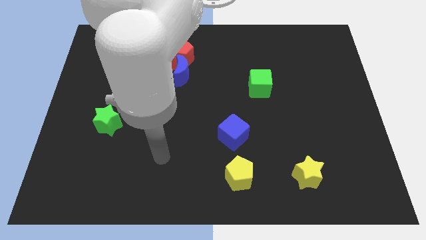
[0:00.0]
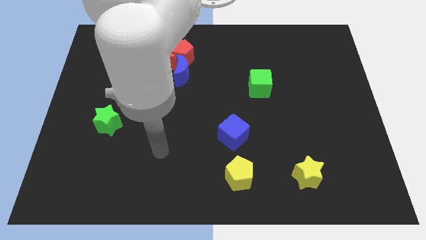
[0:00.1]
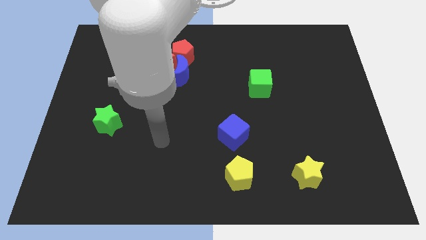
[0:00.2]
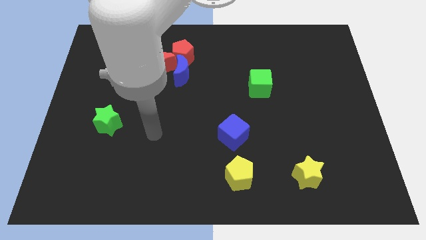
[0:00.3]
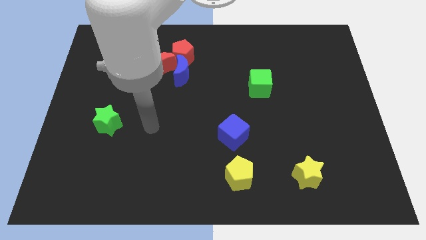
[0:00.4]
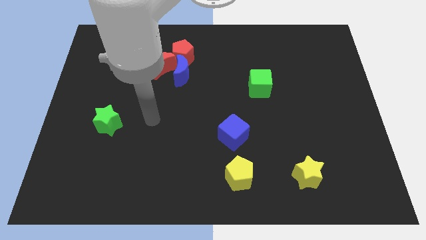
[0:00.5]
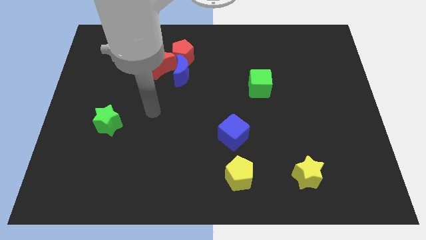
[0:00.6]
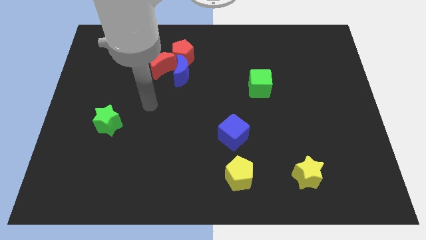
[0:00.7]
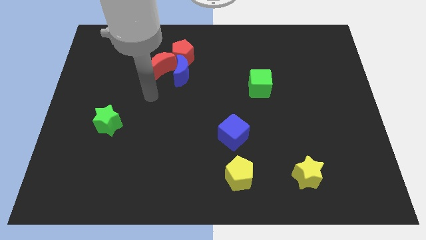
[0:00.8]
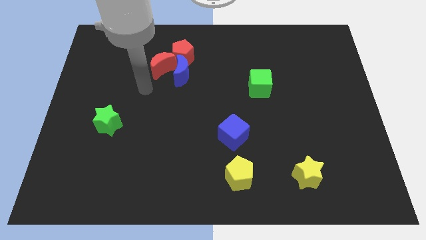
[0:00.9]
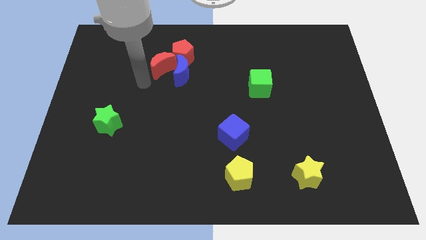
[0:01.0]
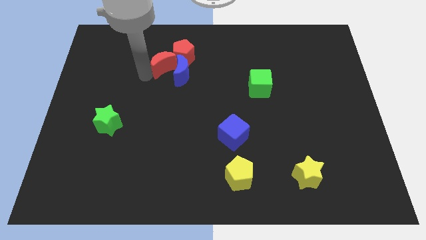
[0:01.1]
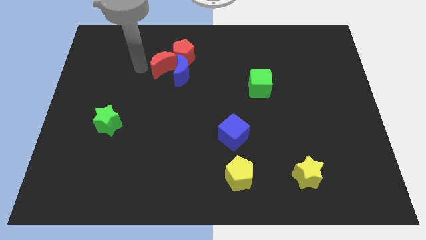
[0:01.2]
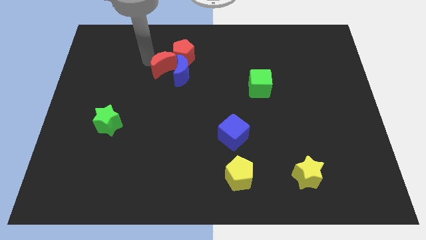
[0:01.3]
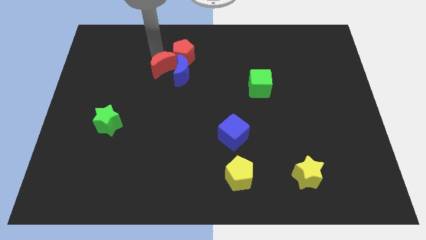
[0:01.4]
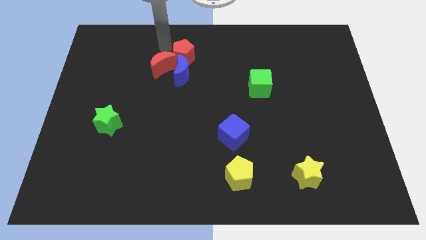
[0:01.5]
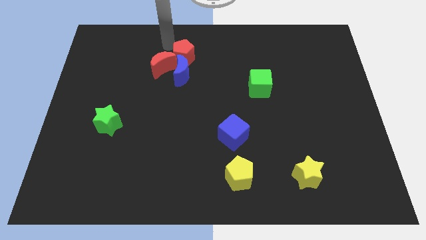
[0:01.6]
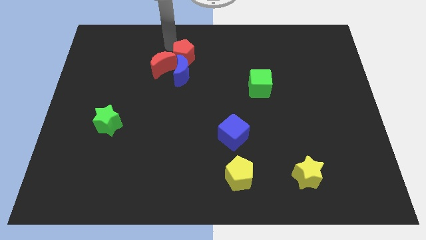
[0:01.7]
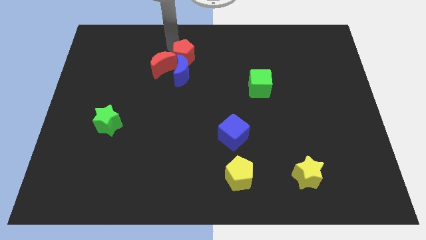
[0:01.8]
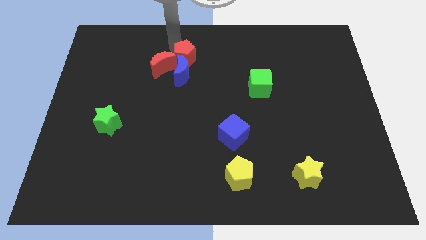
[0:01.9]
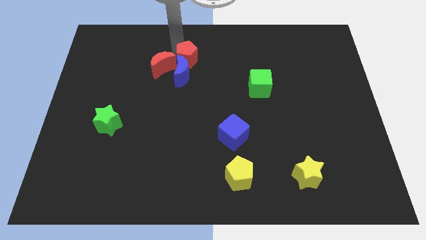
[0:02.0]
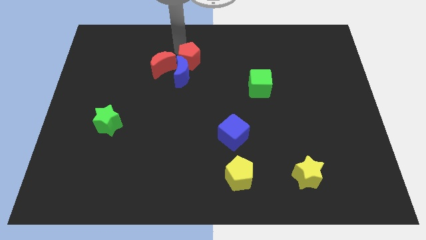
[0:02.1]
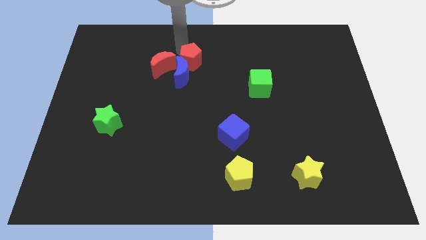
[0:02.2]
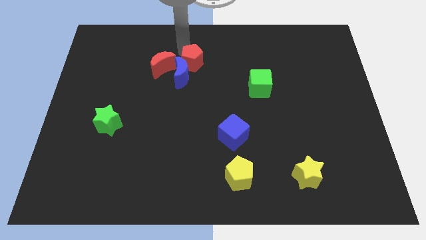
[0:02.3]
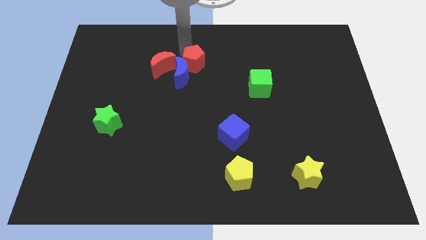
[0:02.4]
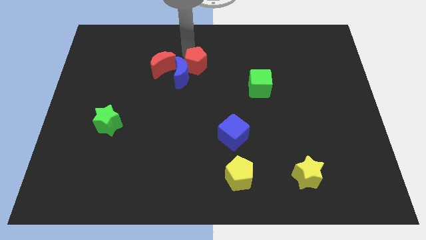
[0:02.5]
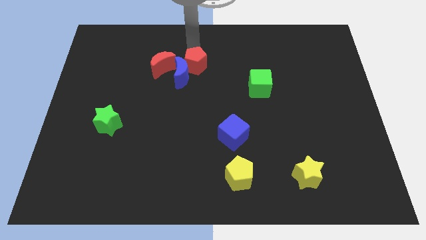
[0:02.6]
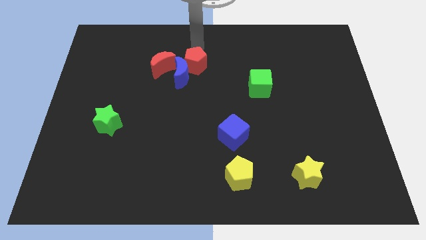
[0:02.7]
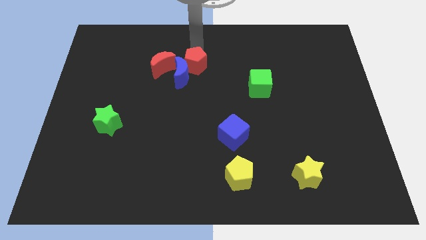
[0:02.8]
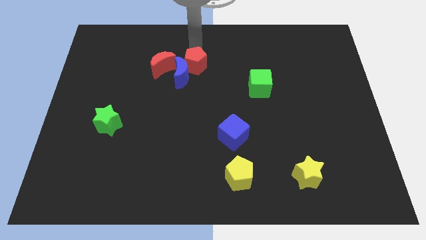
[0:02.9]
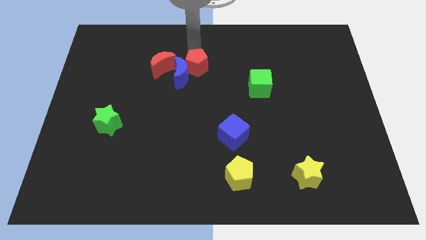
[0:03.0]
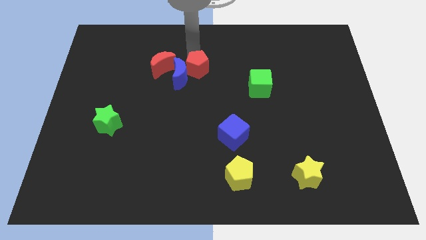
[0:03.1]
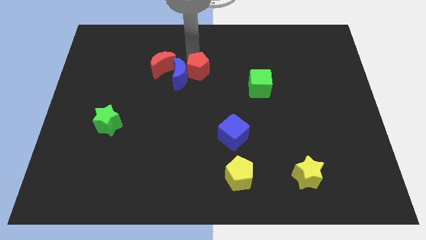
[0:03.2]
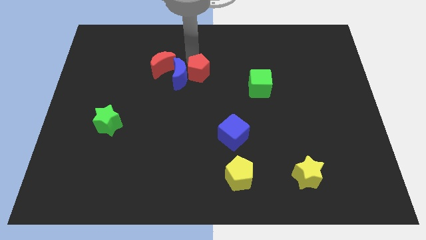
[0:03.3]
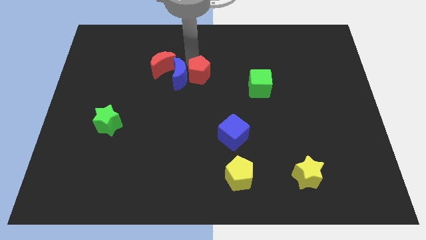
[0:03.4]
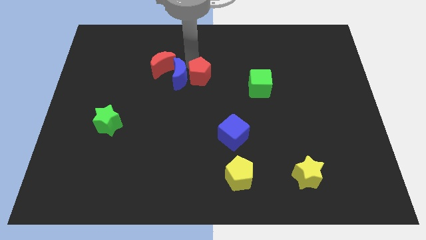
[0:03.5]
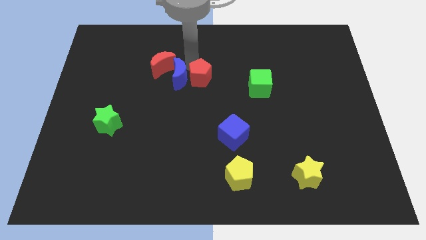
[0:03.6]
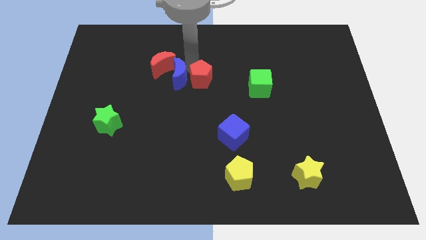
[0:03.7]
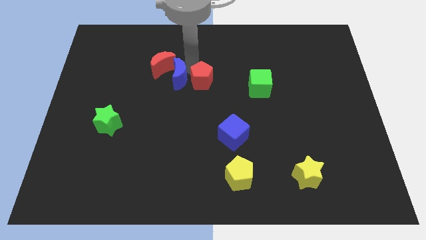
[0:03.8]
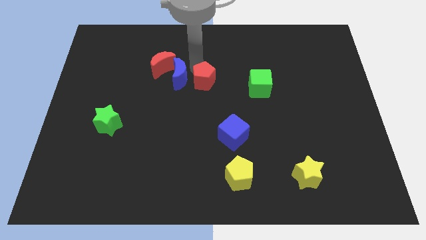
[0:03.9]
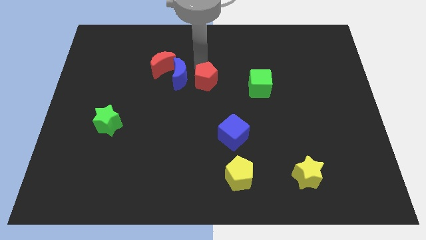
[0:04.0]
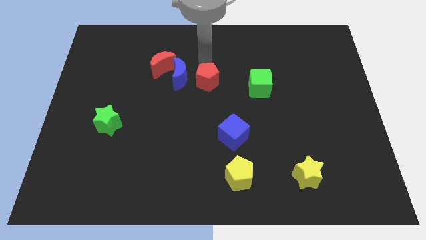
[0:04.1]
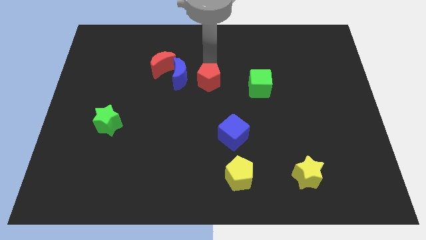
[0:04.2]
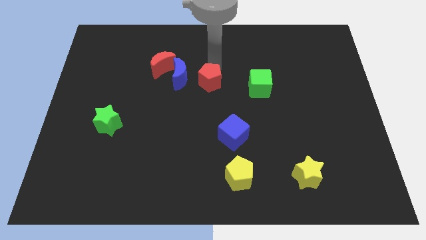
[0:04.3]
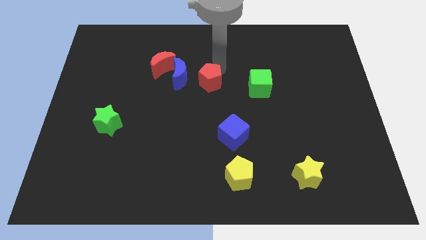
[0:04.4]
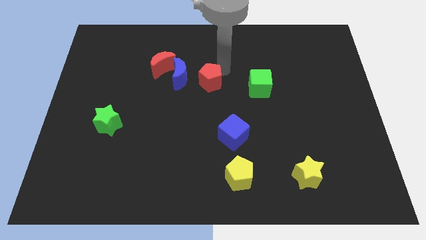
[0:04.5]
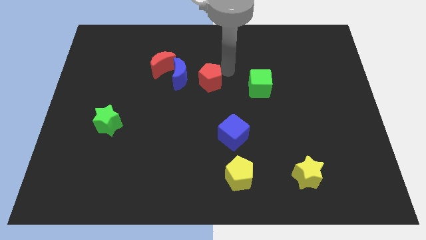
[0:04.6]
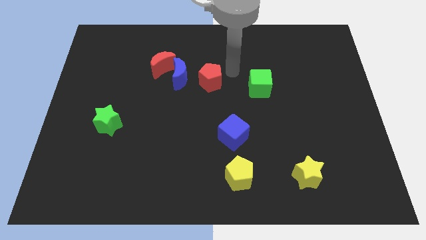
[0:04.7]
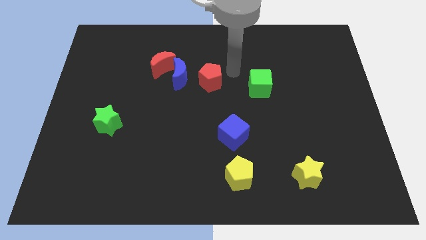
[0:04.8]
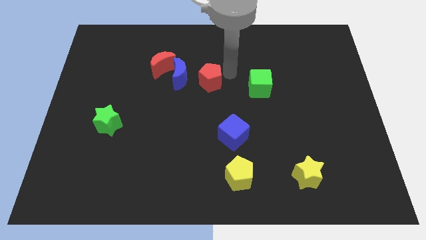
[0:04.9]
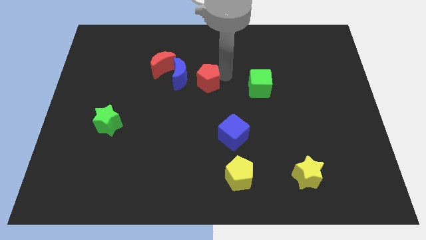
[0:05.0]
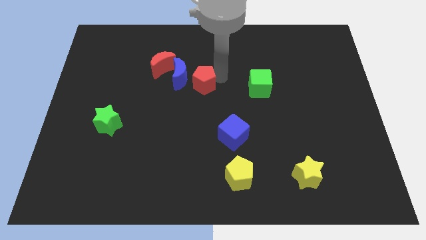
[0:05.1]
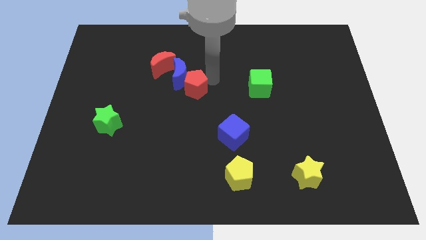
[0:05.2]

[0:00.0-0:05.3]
slide the red pentagon to the bottom side of the blue moon

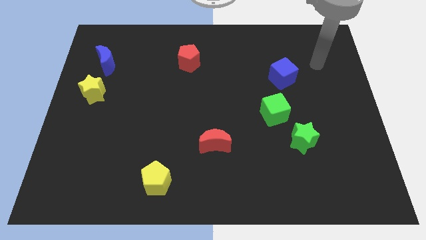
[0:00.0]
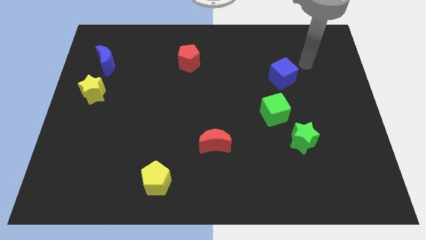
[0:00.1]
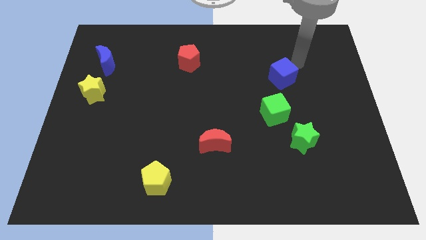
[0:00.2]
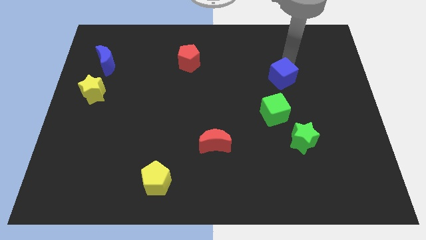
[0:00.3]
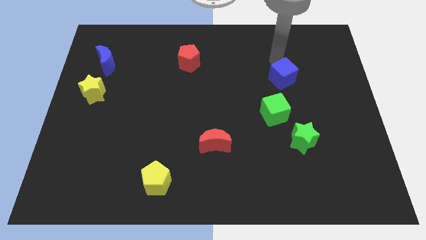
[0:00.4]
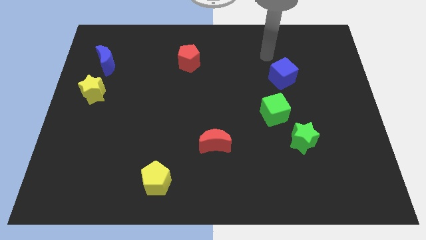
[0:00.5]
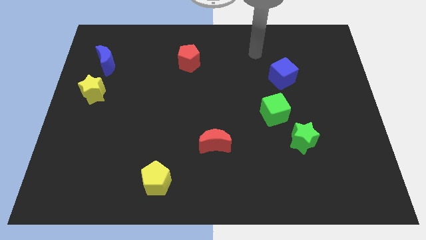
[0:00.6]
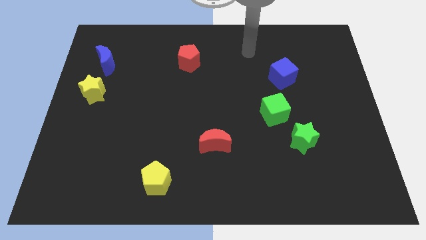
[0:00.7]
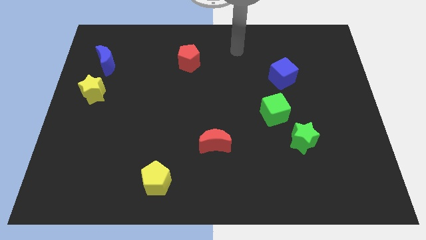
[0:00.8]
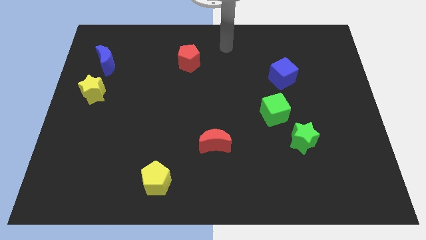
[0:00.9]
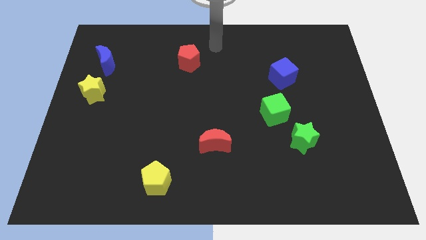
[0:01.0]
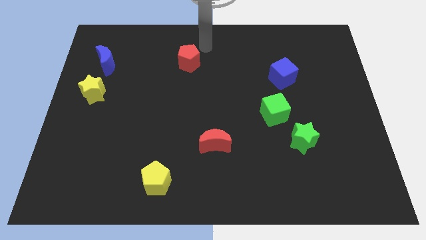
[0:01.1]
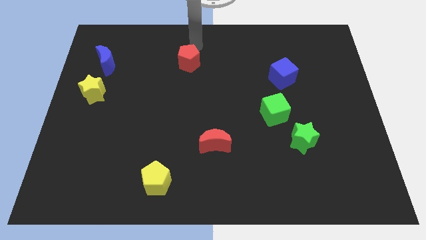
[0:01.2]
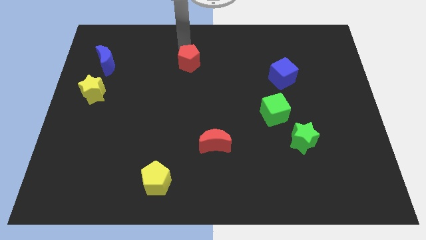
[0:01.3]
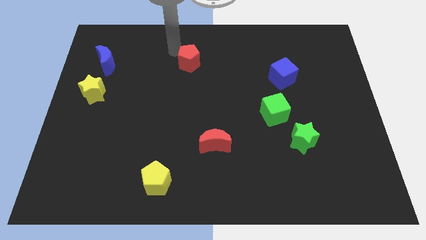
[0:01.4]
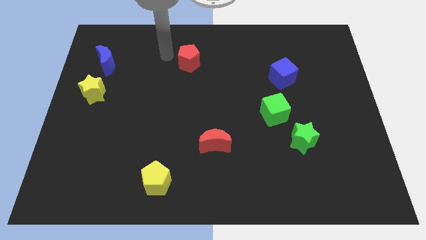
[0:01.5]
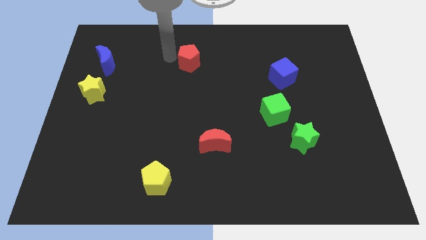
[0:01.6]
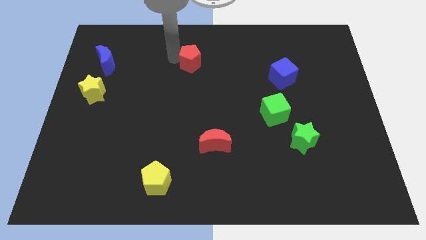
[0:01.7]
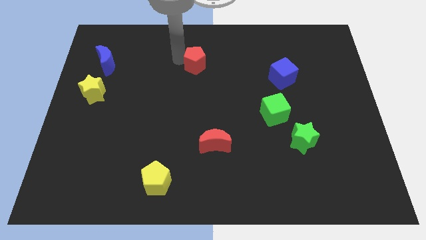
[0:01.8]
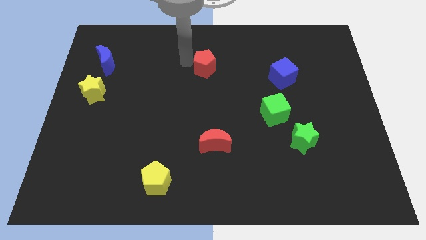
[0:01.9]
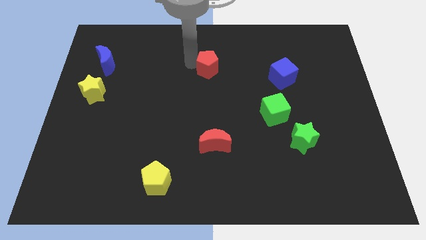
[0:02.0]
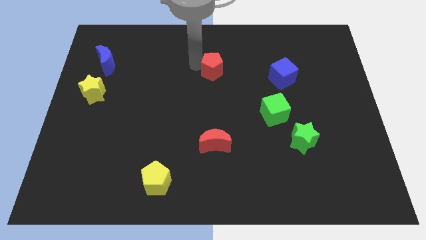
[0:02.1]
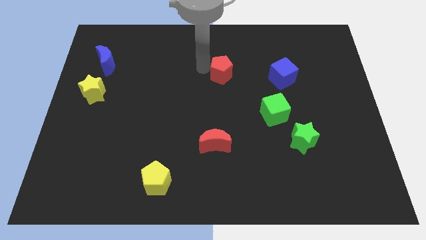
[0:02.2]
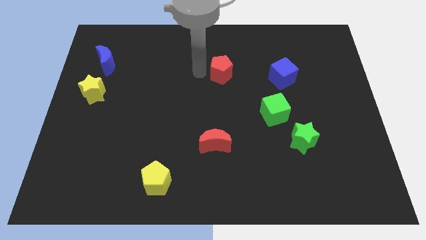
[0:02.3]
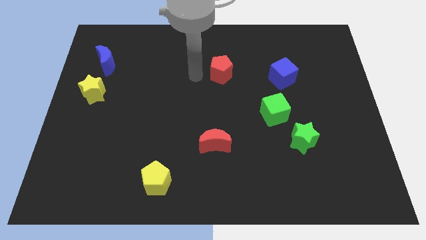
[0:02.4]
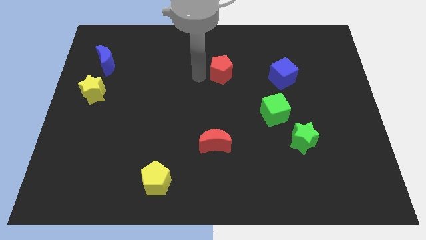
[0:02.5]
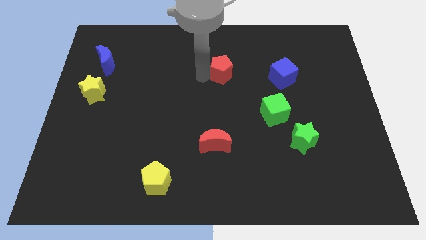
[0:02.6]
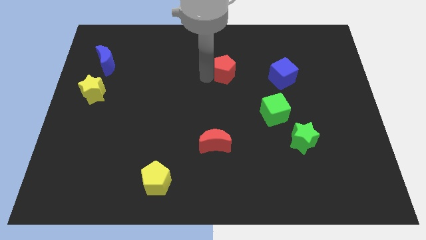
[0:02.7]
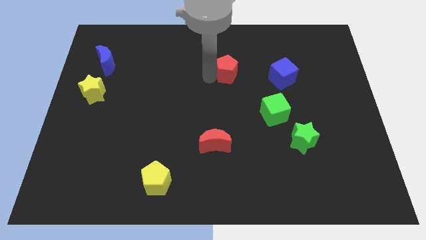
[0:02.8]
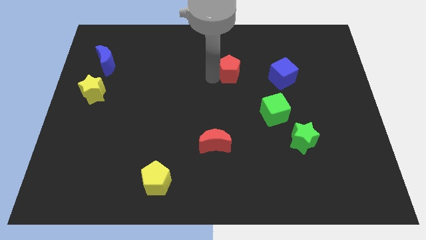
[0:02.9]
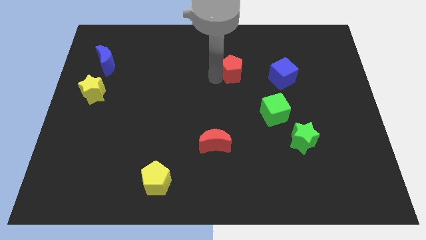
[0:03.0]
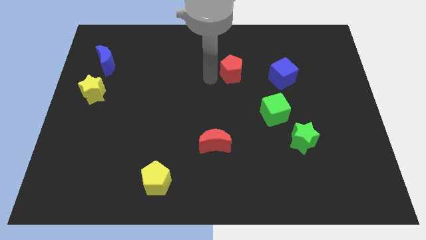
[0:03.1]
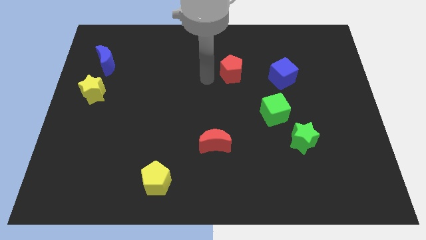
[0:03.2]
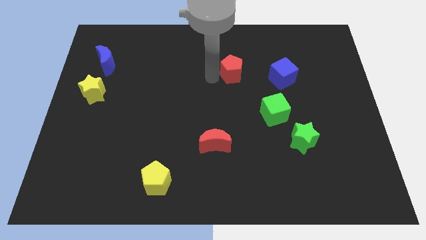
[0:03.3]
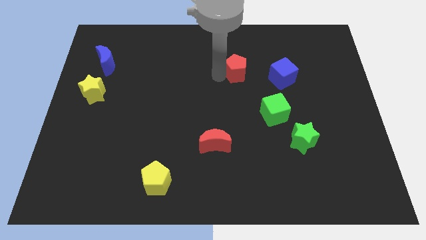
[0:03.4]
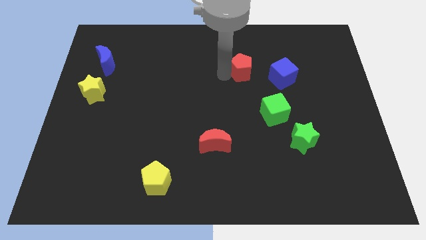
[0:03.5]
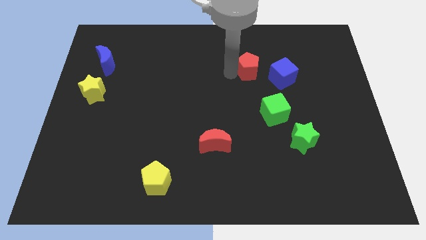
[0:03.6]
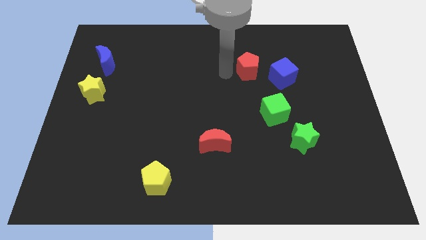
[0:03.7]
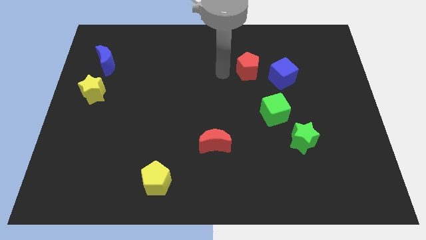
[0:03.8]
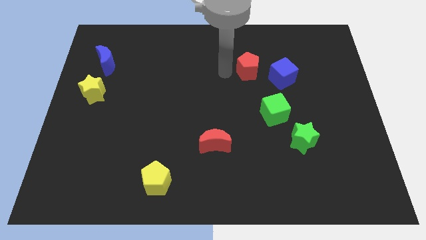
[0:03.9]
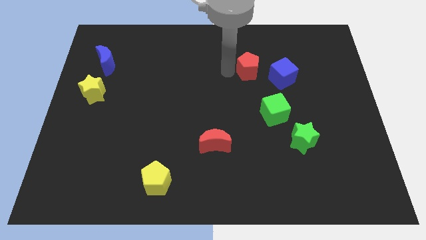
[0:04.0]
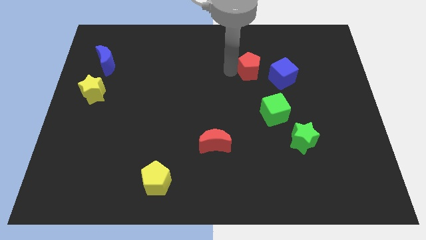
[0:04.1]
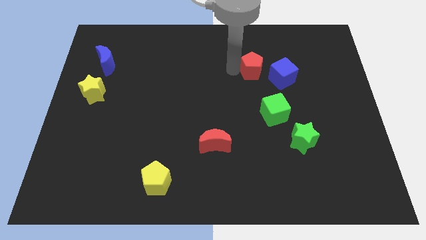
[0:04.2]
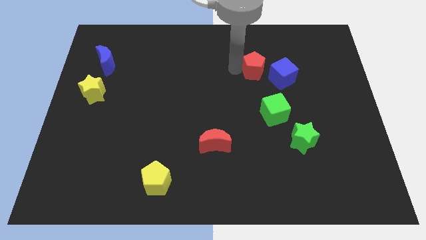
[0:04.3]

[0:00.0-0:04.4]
slide the red pentagon to the top of the green cube
